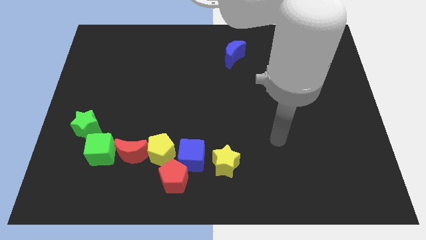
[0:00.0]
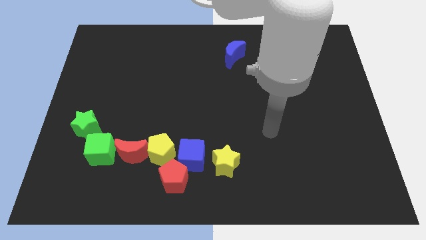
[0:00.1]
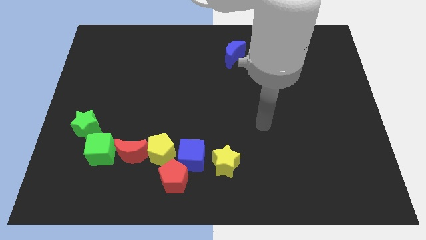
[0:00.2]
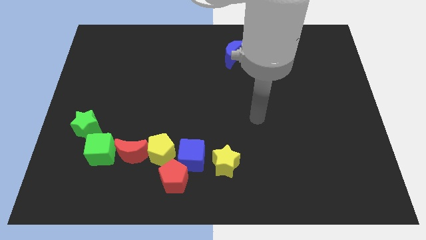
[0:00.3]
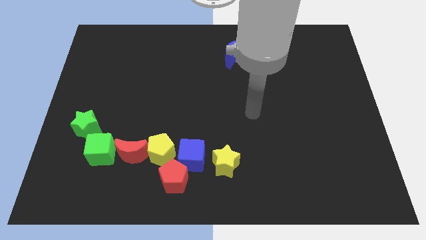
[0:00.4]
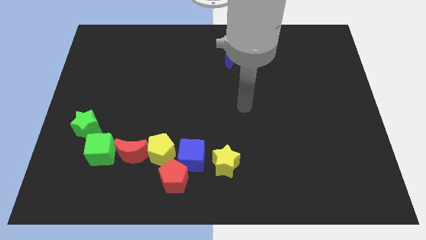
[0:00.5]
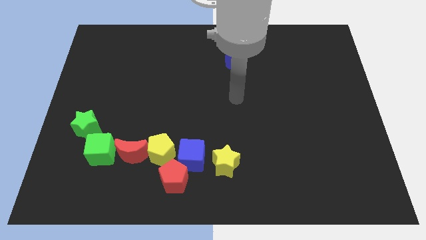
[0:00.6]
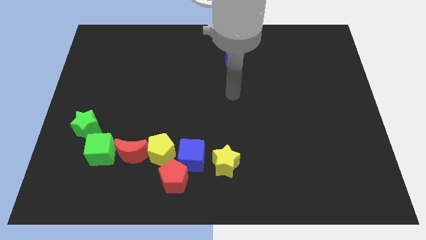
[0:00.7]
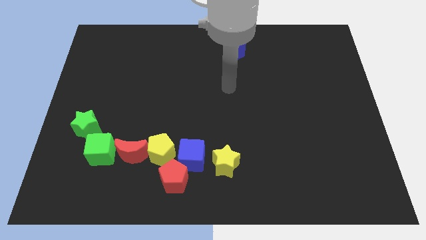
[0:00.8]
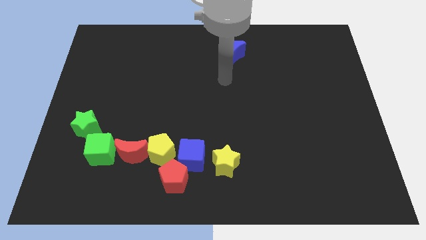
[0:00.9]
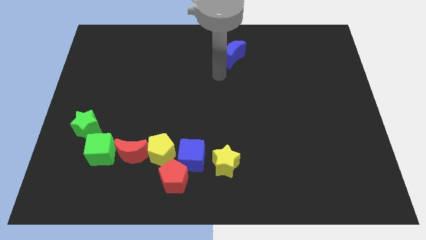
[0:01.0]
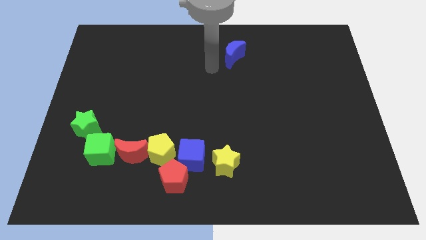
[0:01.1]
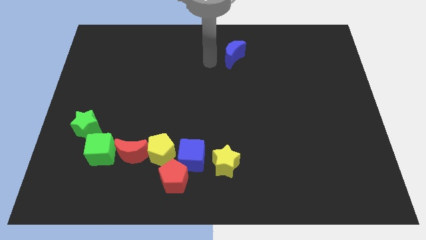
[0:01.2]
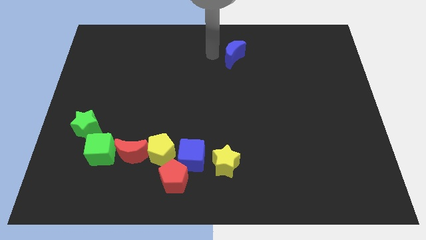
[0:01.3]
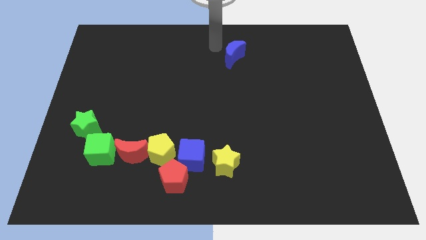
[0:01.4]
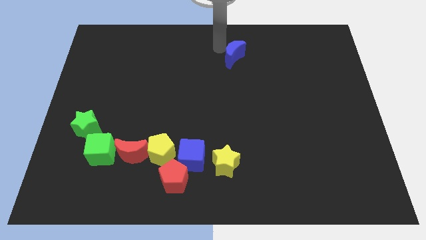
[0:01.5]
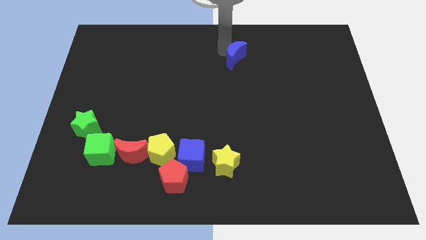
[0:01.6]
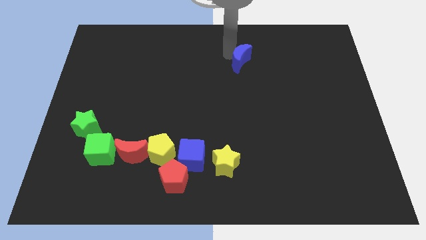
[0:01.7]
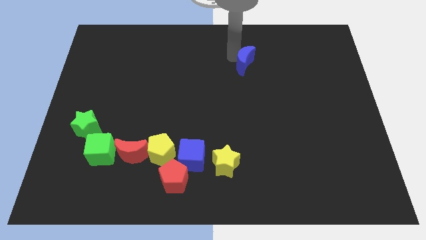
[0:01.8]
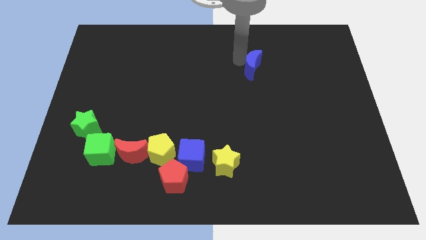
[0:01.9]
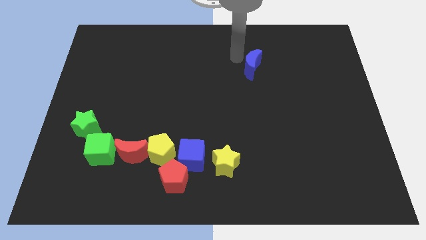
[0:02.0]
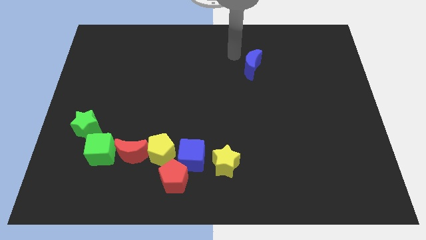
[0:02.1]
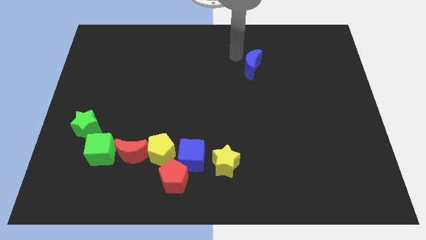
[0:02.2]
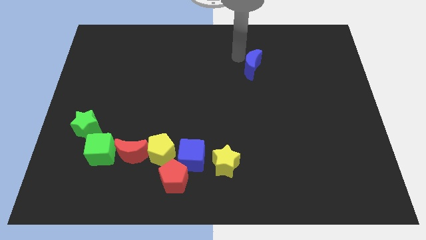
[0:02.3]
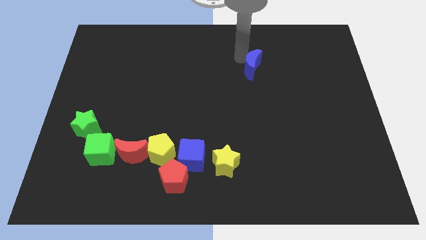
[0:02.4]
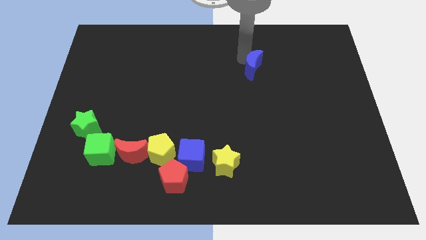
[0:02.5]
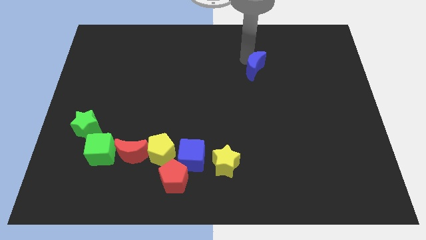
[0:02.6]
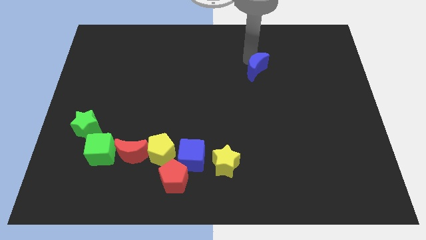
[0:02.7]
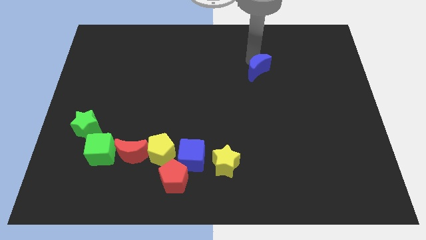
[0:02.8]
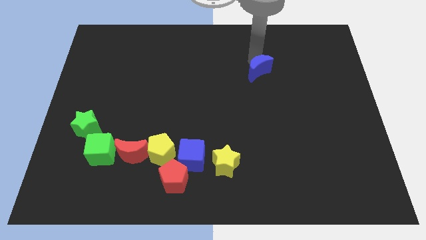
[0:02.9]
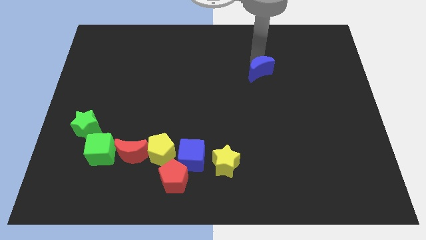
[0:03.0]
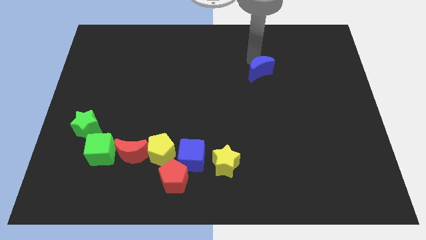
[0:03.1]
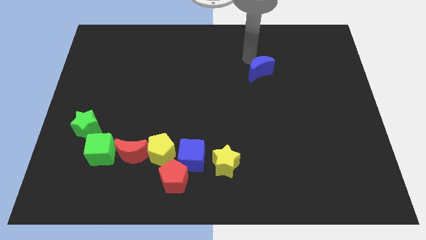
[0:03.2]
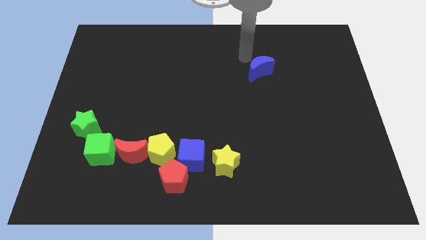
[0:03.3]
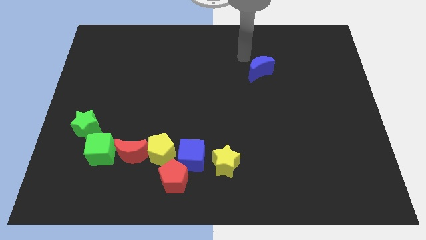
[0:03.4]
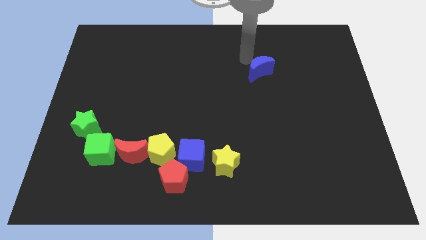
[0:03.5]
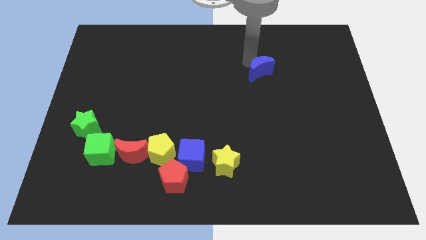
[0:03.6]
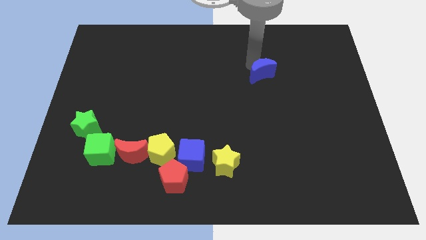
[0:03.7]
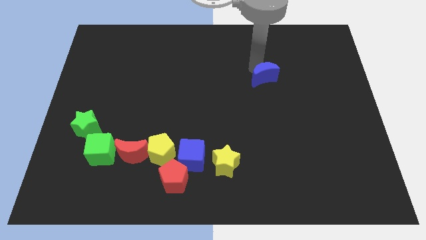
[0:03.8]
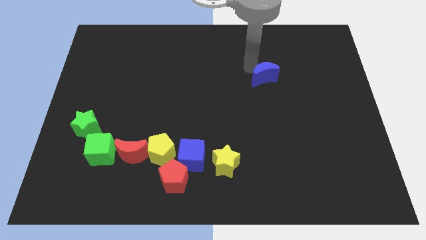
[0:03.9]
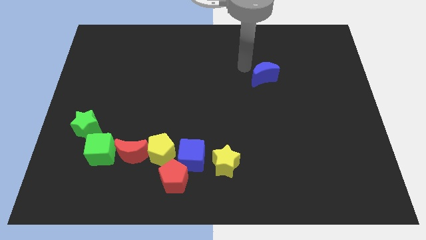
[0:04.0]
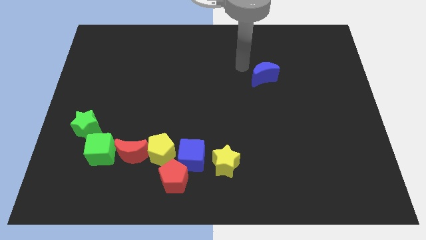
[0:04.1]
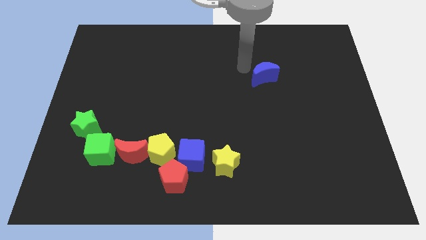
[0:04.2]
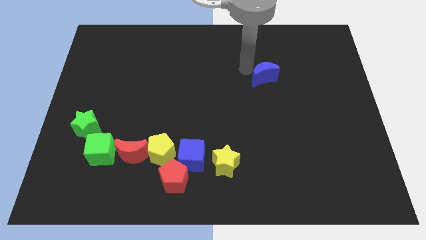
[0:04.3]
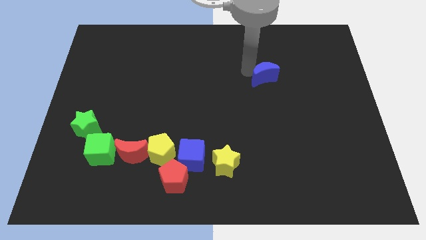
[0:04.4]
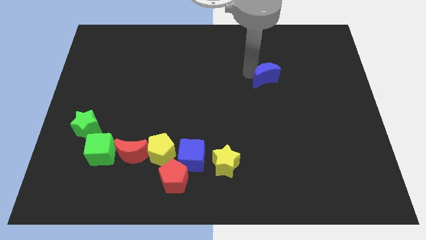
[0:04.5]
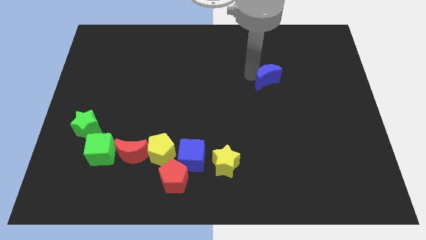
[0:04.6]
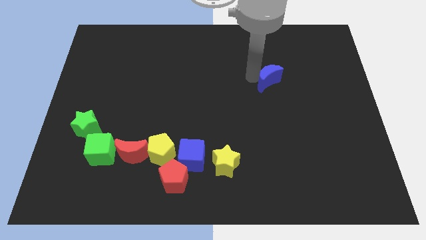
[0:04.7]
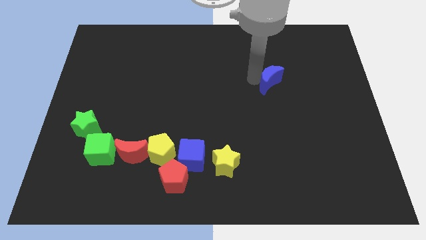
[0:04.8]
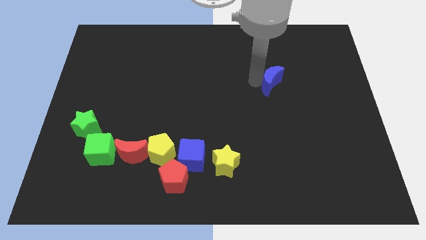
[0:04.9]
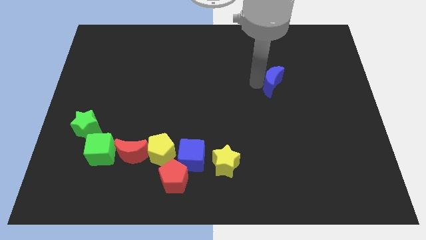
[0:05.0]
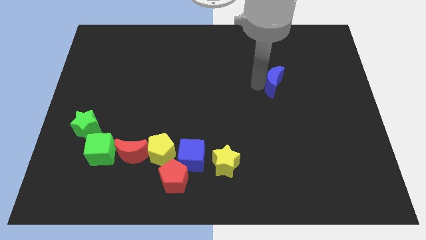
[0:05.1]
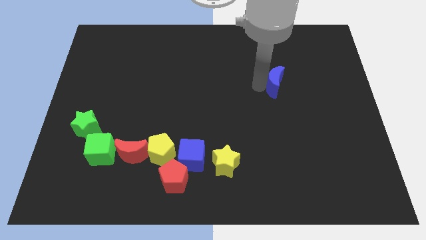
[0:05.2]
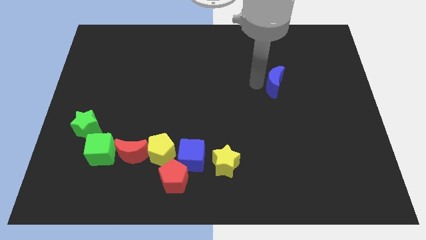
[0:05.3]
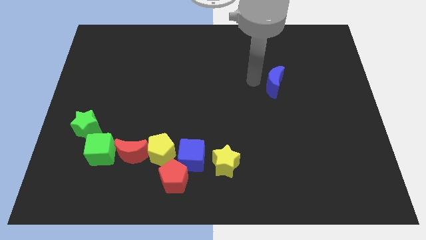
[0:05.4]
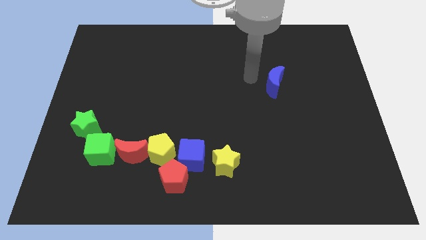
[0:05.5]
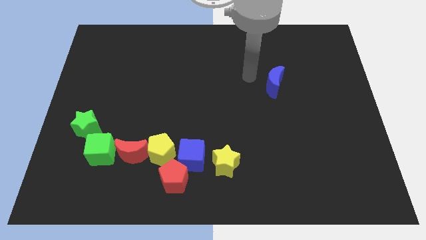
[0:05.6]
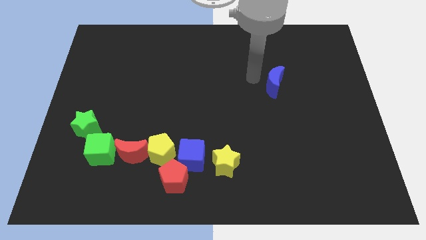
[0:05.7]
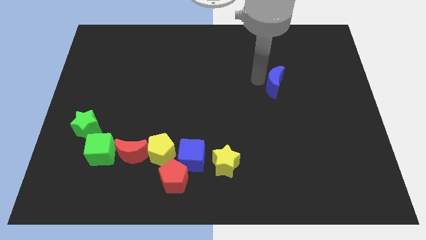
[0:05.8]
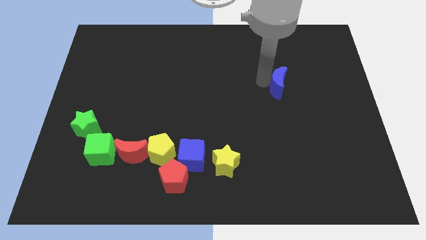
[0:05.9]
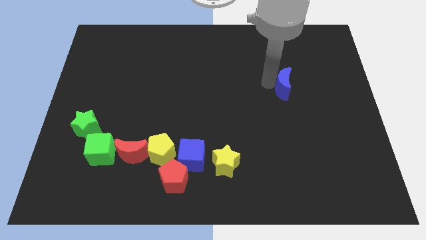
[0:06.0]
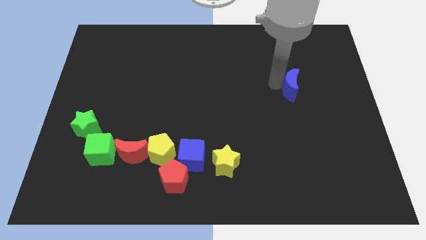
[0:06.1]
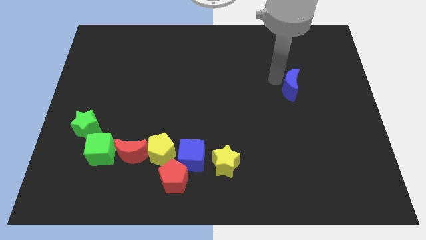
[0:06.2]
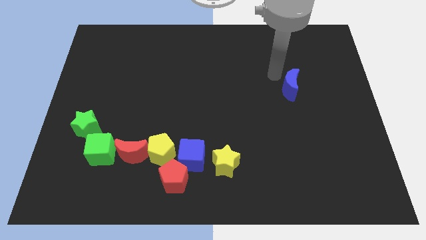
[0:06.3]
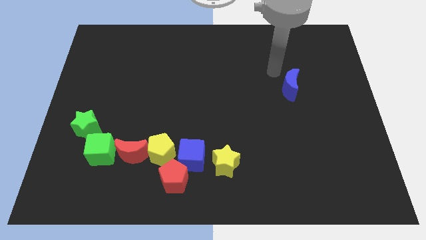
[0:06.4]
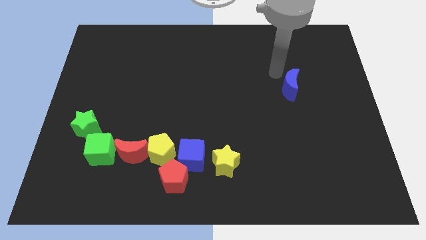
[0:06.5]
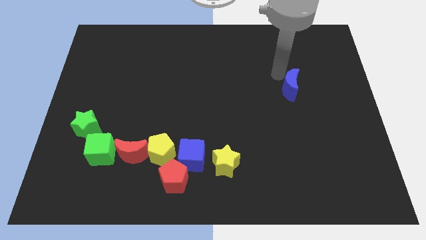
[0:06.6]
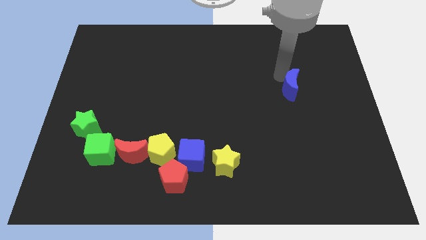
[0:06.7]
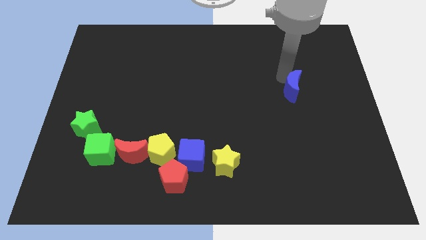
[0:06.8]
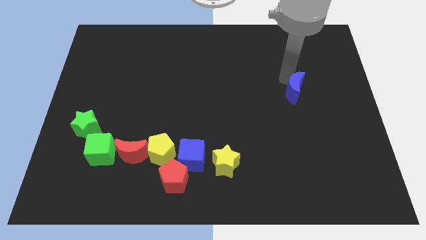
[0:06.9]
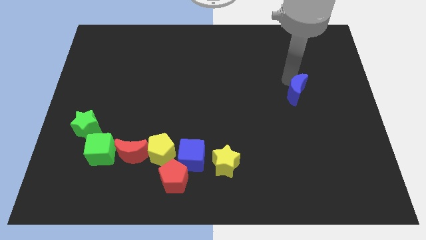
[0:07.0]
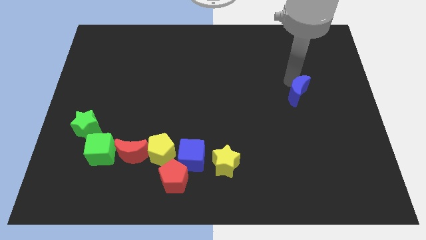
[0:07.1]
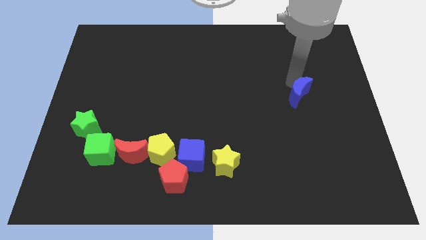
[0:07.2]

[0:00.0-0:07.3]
slide the blue moon diagonally down and right

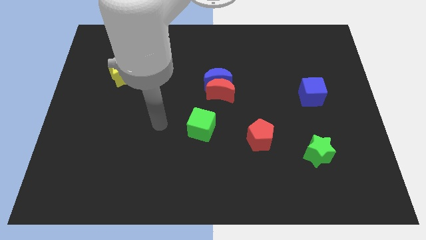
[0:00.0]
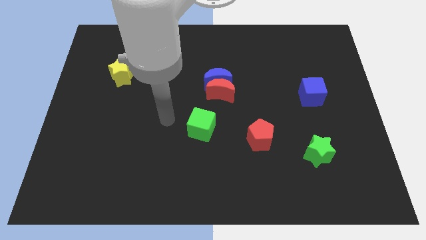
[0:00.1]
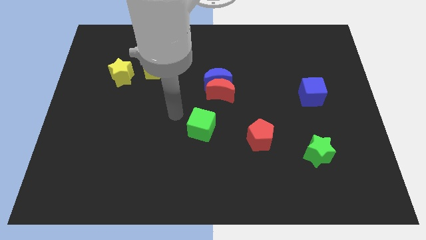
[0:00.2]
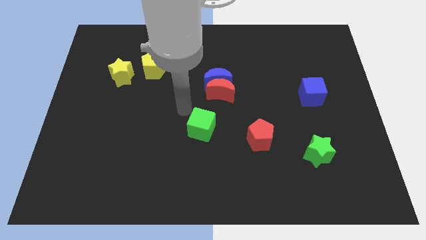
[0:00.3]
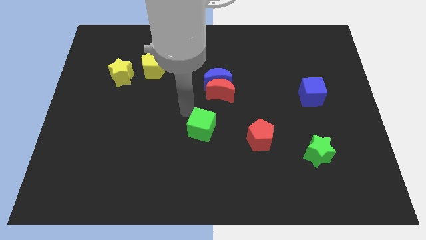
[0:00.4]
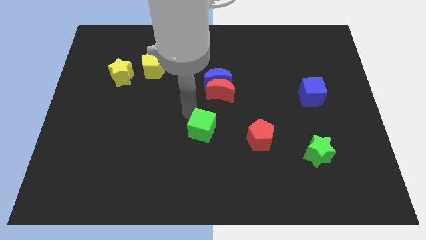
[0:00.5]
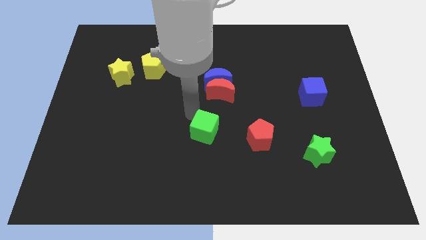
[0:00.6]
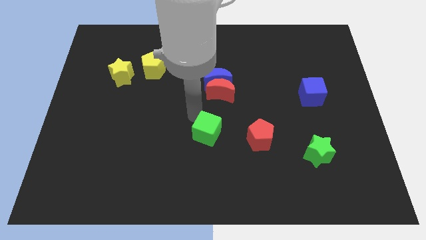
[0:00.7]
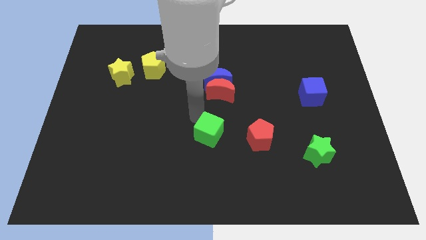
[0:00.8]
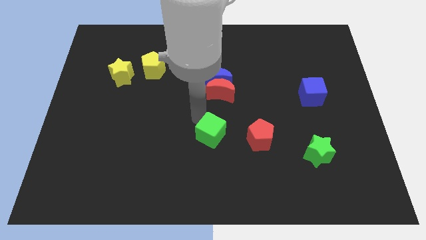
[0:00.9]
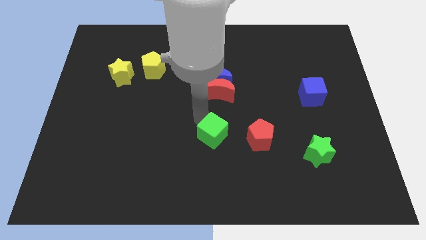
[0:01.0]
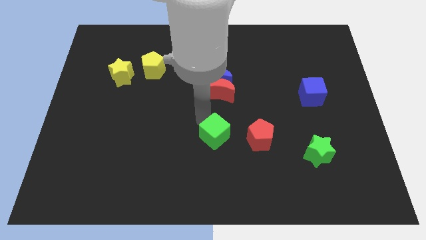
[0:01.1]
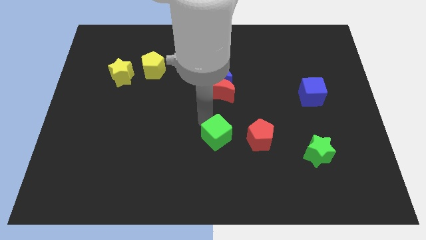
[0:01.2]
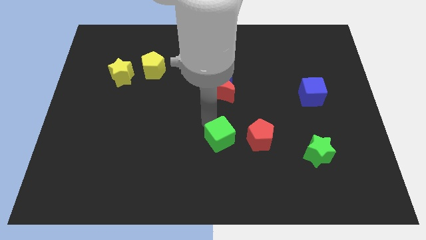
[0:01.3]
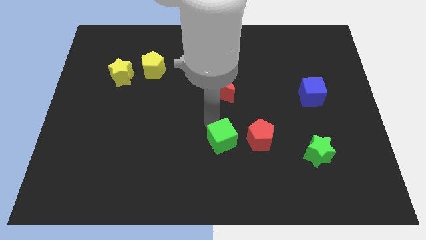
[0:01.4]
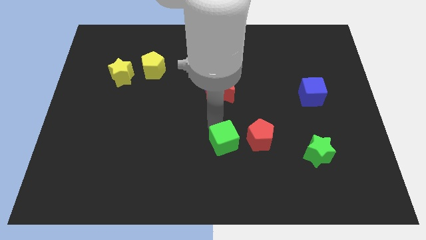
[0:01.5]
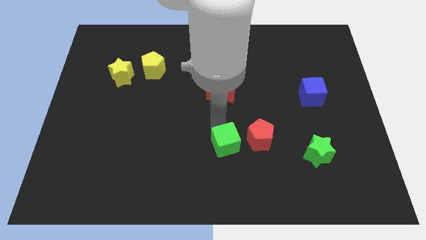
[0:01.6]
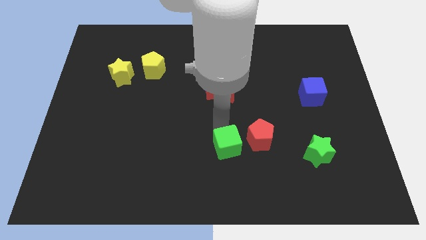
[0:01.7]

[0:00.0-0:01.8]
move the green cube down and then to the right somewhat
